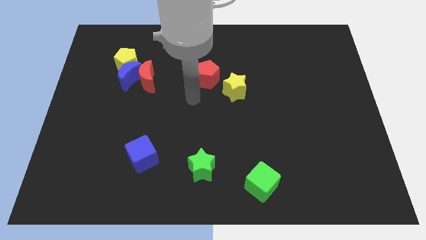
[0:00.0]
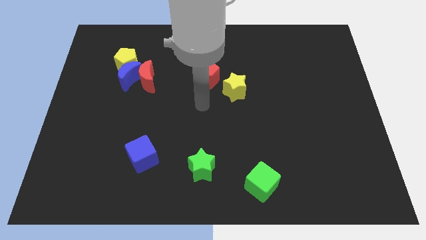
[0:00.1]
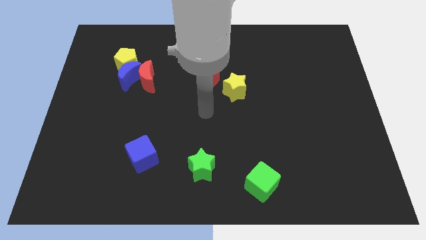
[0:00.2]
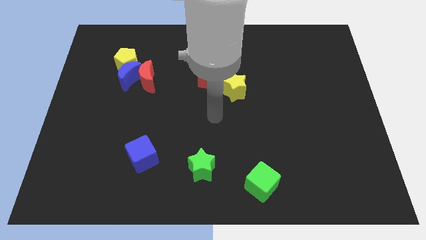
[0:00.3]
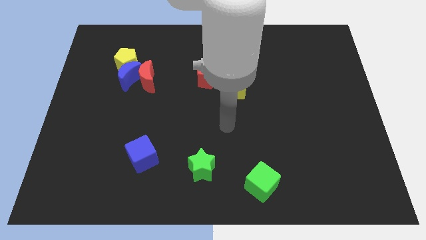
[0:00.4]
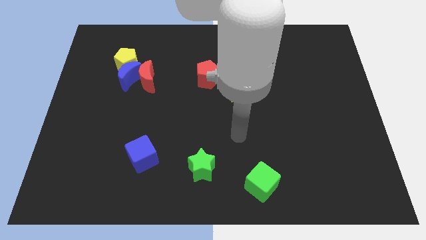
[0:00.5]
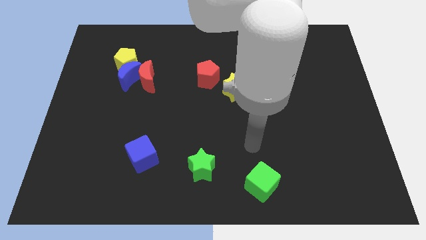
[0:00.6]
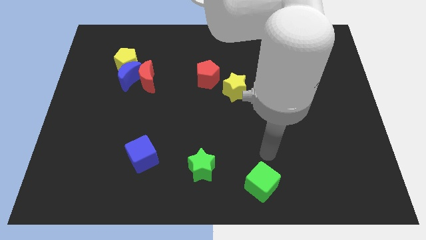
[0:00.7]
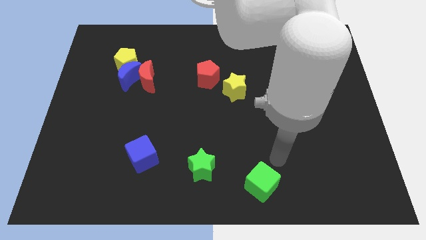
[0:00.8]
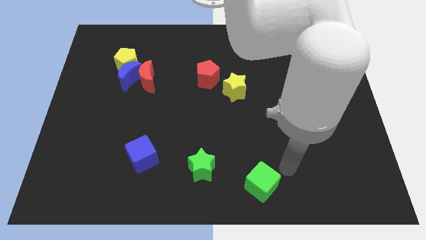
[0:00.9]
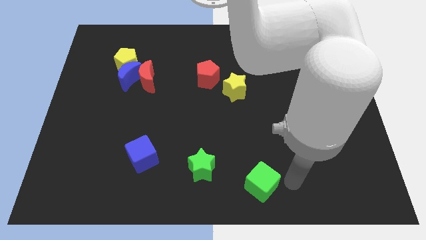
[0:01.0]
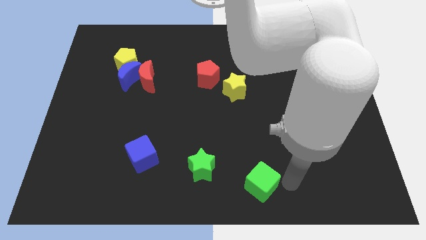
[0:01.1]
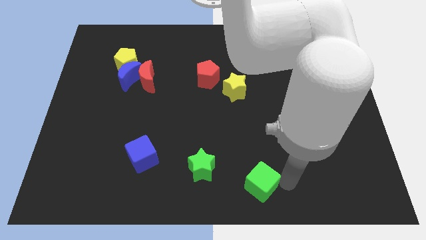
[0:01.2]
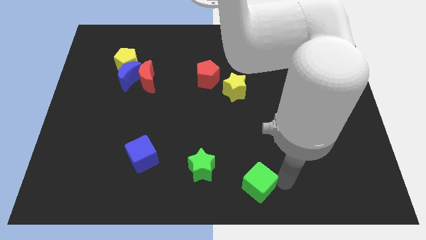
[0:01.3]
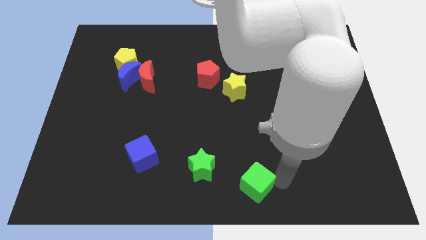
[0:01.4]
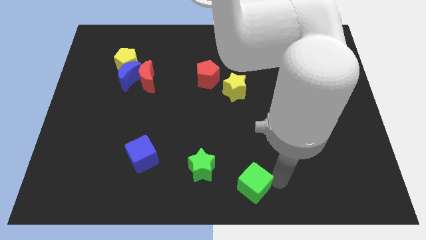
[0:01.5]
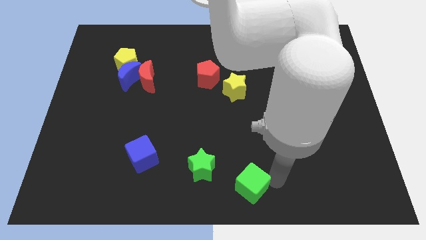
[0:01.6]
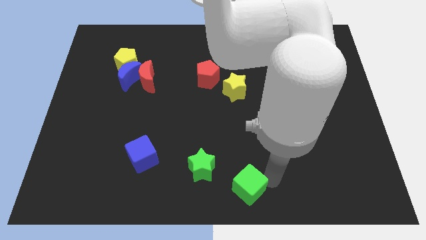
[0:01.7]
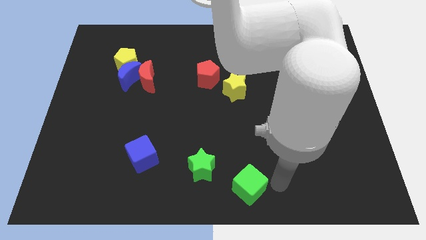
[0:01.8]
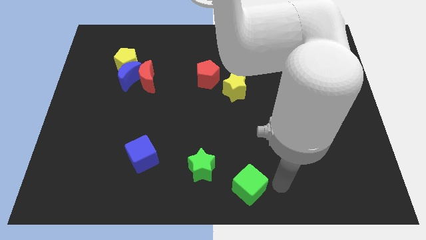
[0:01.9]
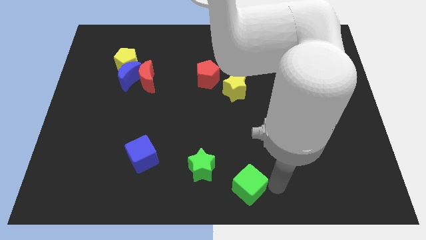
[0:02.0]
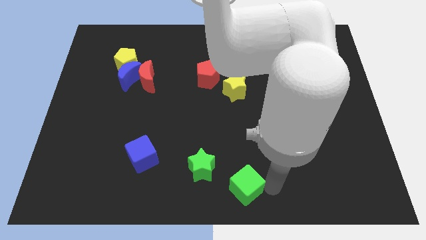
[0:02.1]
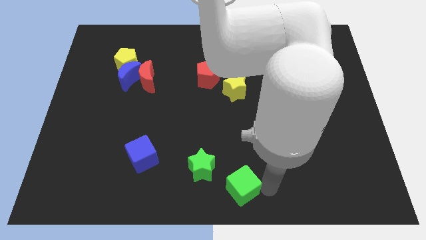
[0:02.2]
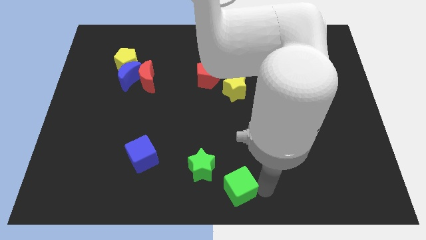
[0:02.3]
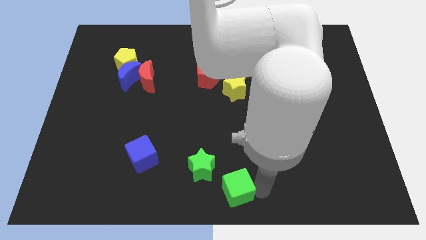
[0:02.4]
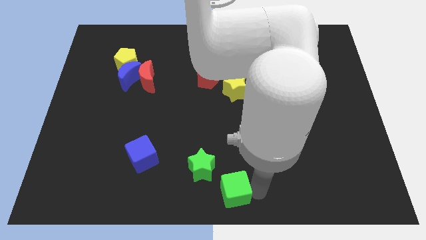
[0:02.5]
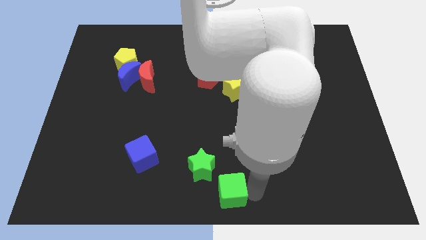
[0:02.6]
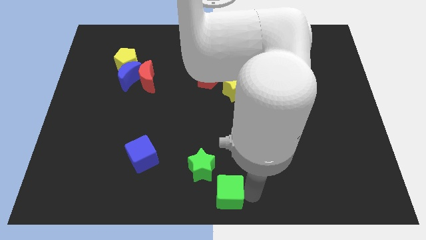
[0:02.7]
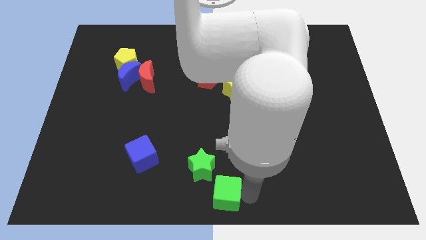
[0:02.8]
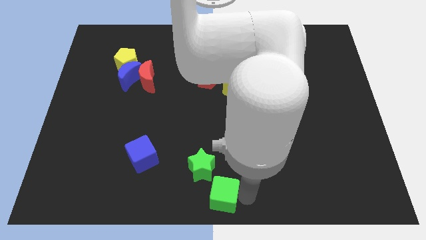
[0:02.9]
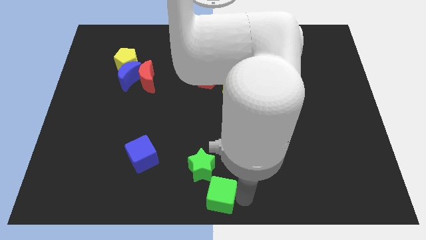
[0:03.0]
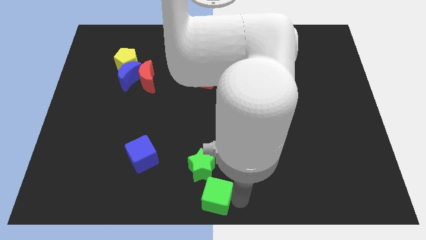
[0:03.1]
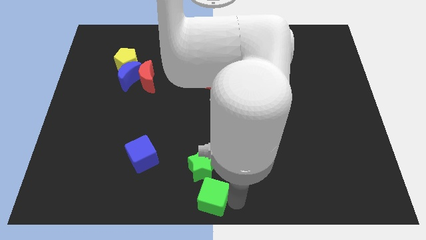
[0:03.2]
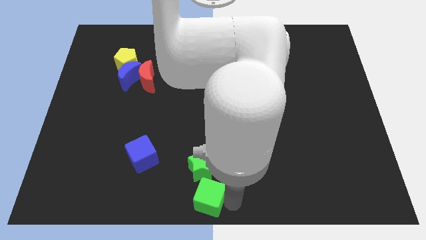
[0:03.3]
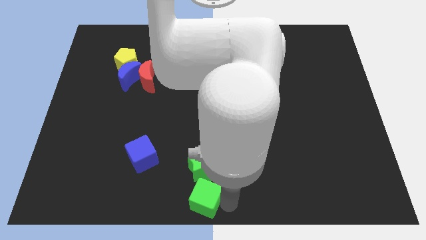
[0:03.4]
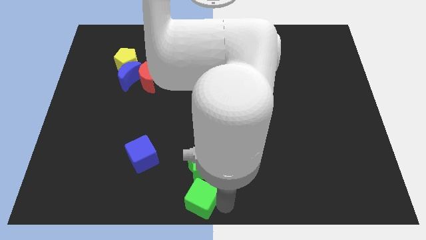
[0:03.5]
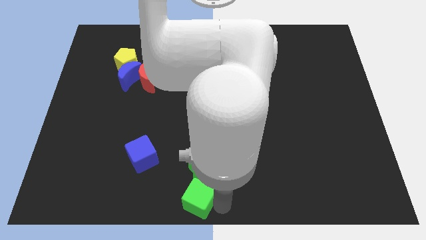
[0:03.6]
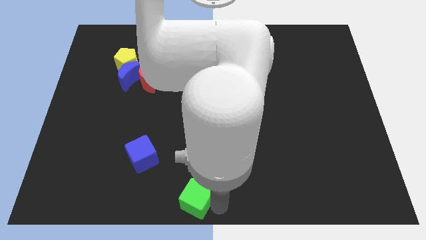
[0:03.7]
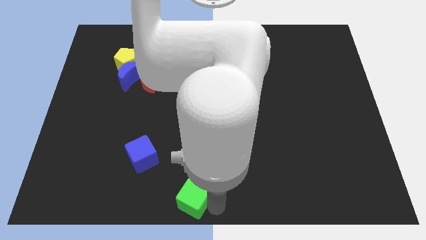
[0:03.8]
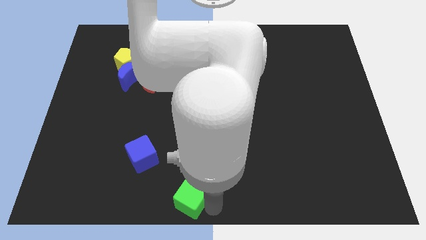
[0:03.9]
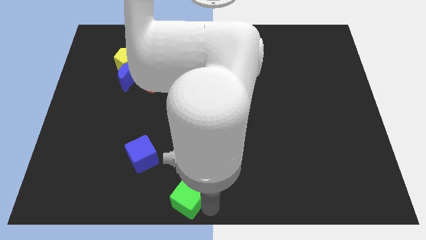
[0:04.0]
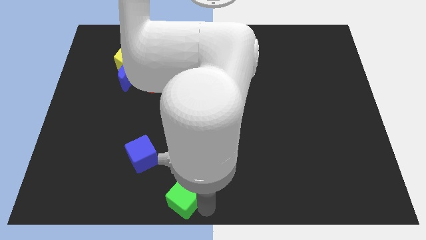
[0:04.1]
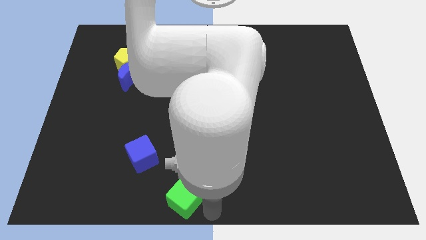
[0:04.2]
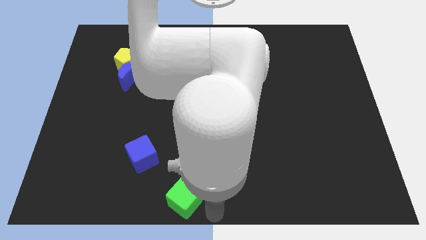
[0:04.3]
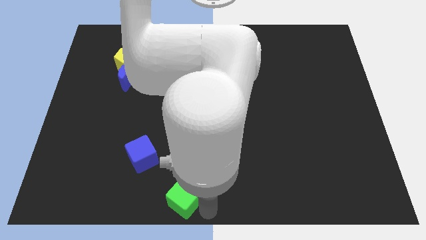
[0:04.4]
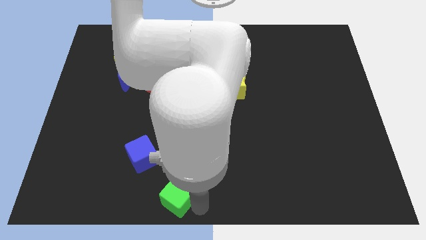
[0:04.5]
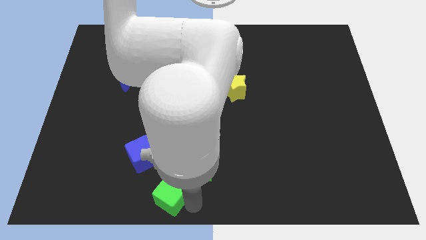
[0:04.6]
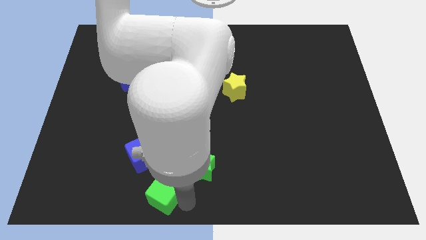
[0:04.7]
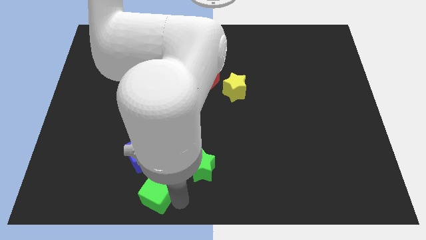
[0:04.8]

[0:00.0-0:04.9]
slide the green cube to the left

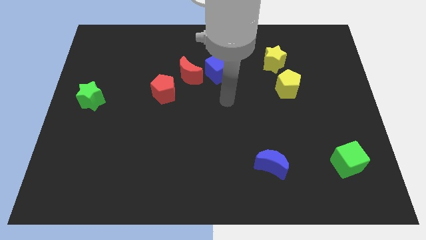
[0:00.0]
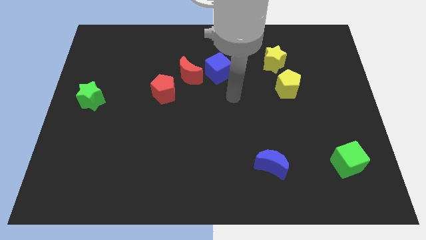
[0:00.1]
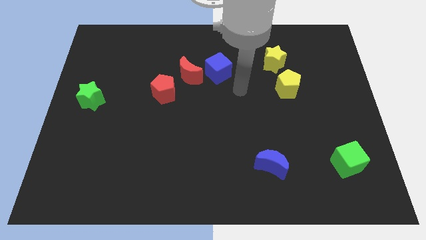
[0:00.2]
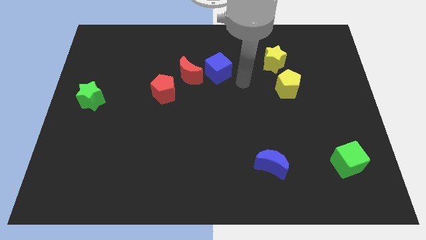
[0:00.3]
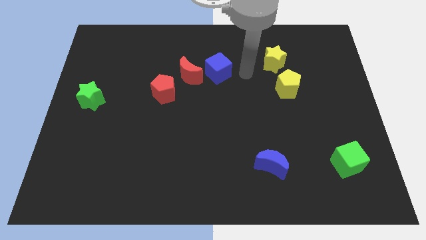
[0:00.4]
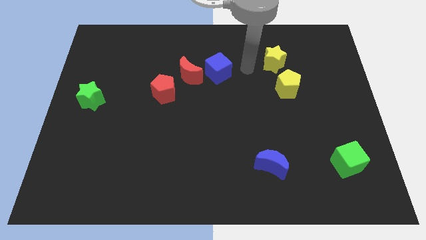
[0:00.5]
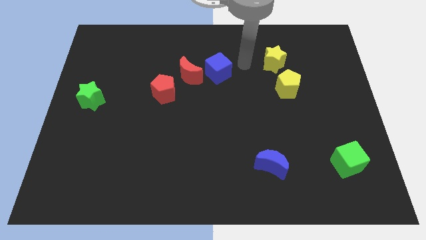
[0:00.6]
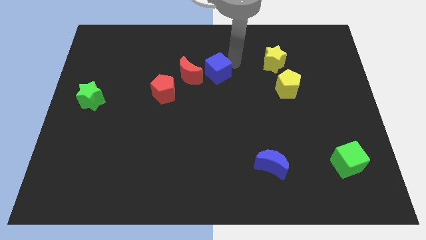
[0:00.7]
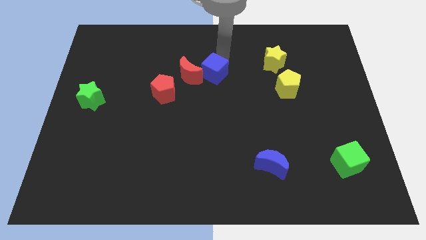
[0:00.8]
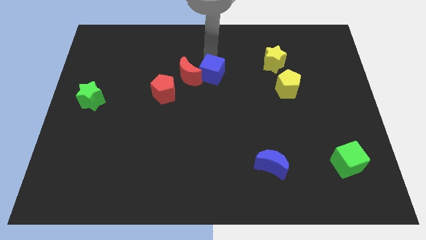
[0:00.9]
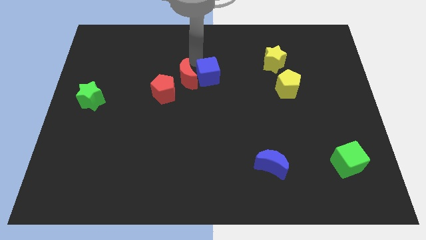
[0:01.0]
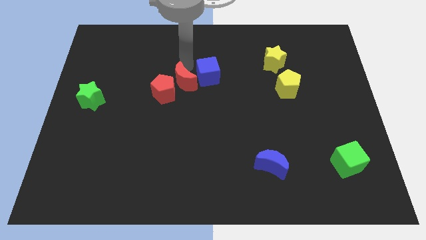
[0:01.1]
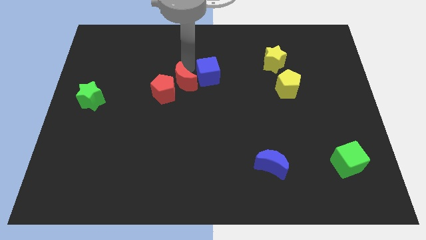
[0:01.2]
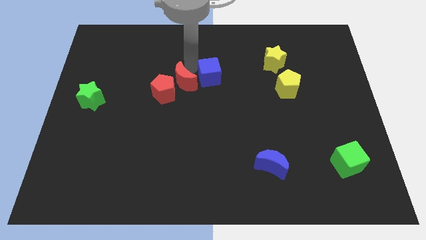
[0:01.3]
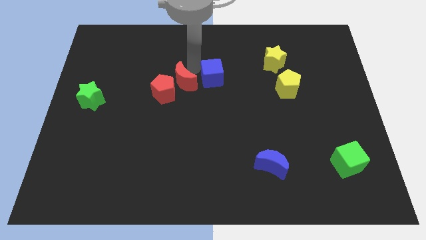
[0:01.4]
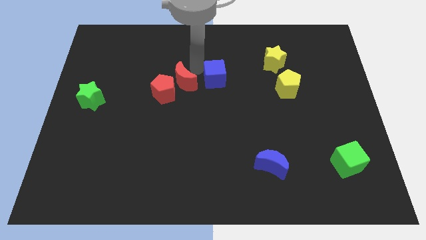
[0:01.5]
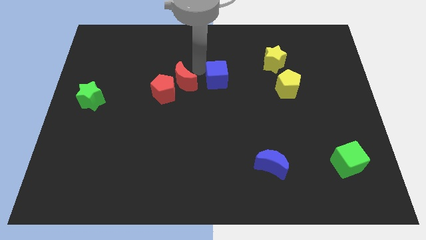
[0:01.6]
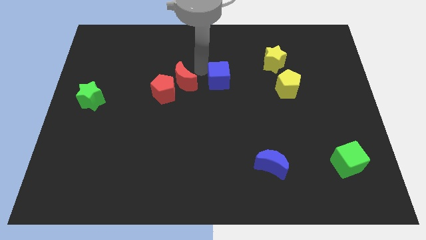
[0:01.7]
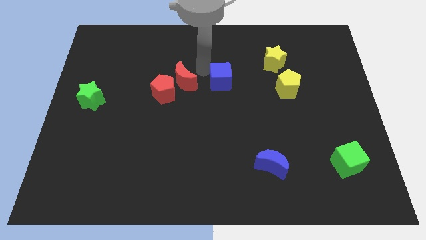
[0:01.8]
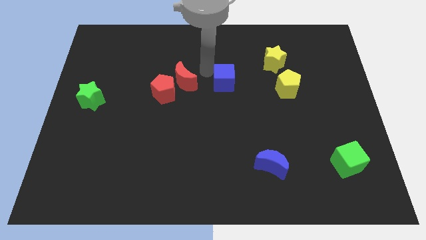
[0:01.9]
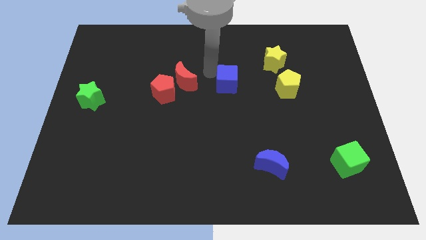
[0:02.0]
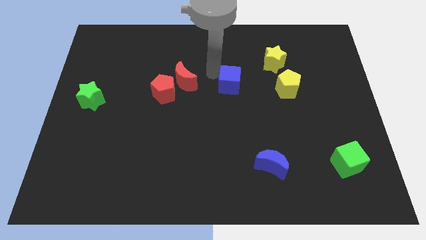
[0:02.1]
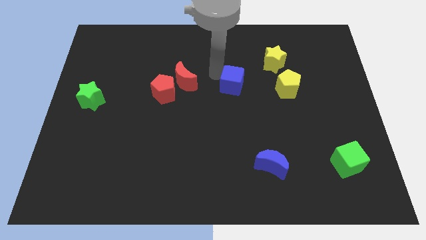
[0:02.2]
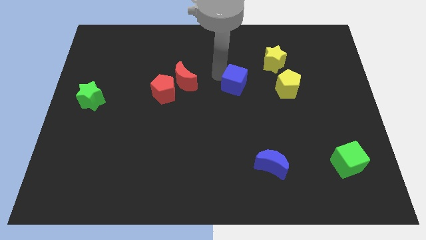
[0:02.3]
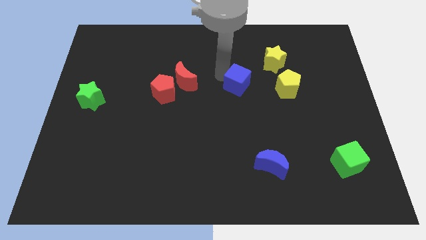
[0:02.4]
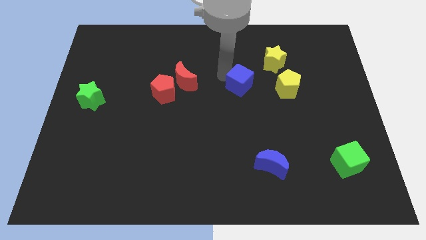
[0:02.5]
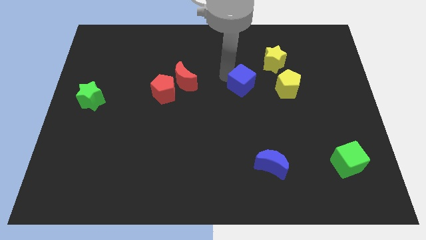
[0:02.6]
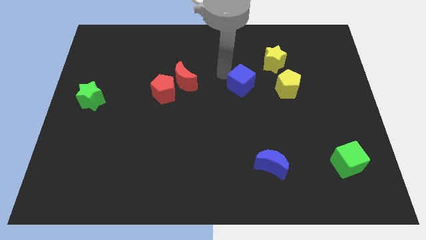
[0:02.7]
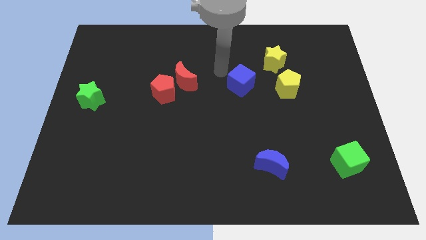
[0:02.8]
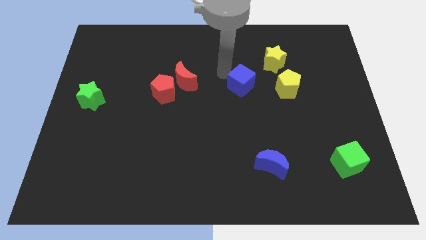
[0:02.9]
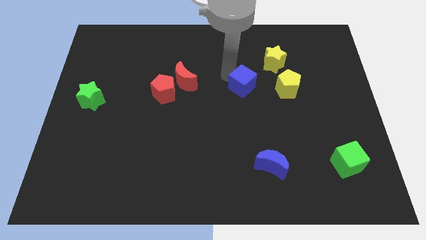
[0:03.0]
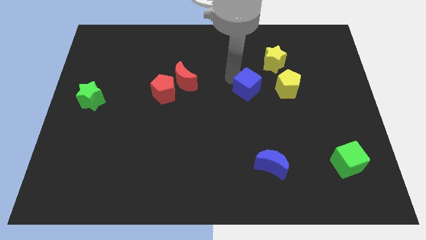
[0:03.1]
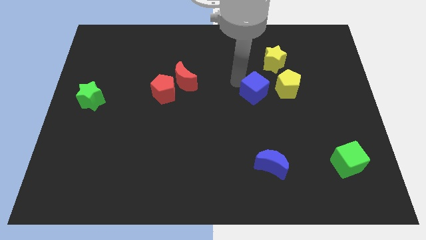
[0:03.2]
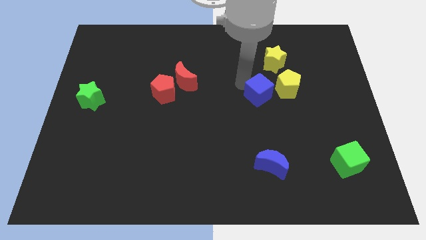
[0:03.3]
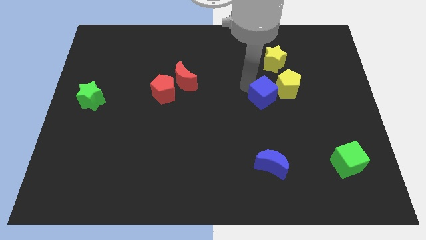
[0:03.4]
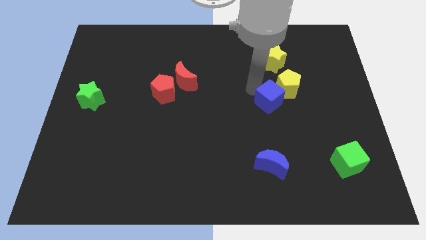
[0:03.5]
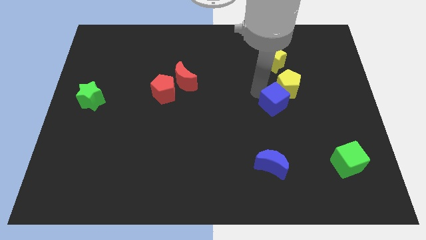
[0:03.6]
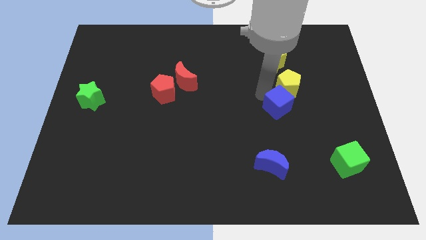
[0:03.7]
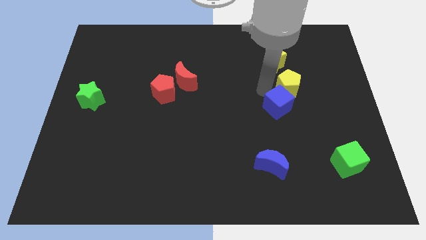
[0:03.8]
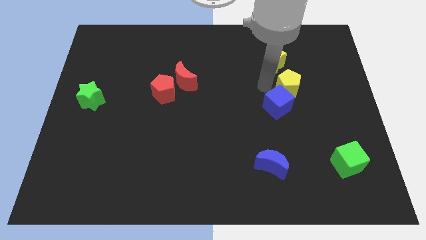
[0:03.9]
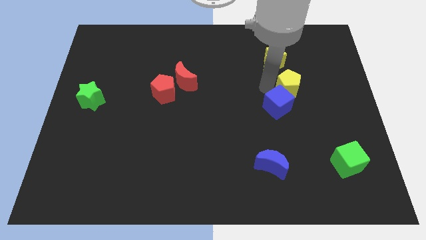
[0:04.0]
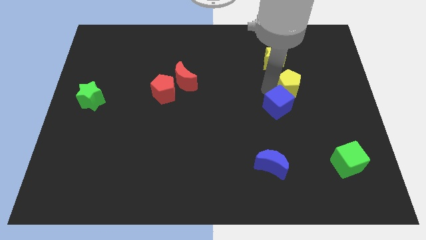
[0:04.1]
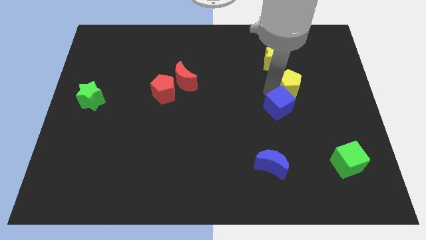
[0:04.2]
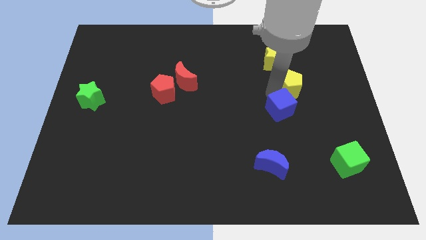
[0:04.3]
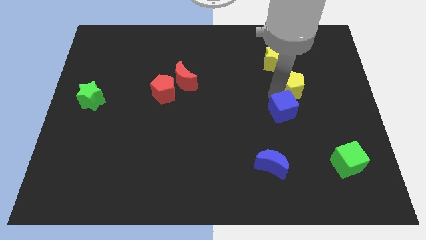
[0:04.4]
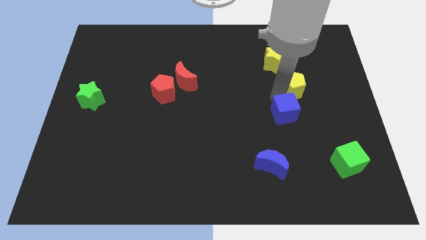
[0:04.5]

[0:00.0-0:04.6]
slide the blue cube down and to the right
